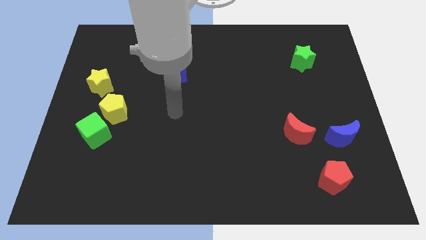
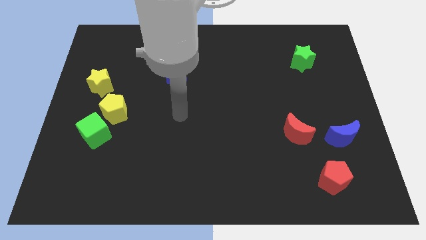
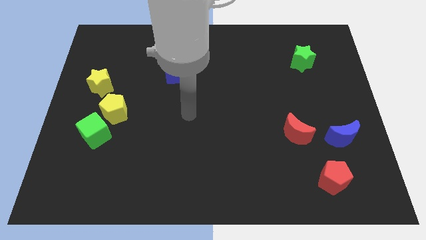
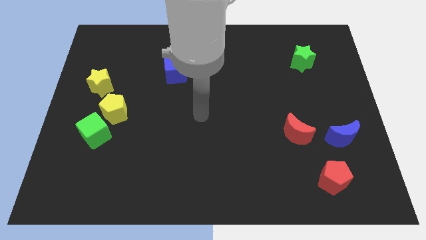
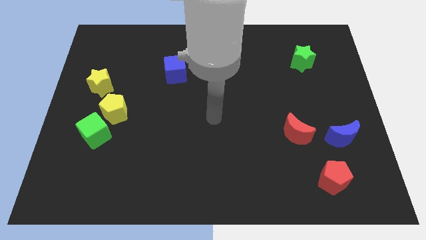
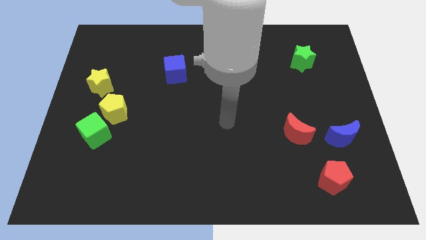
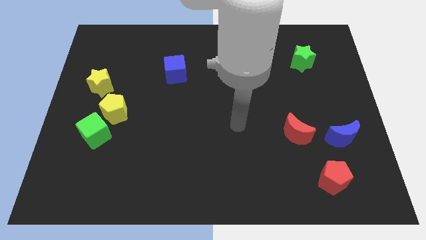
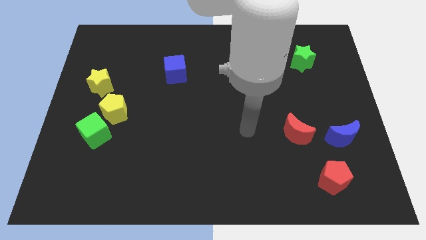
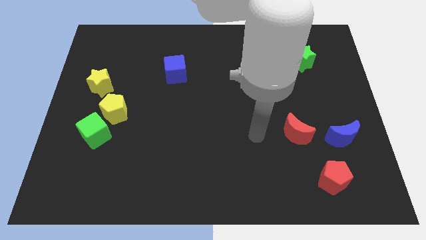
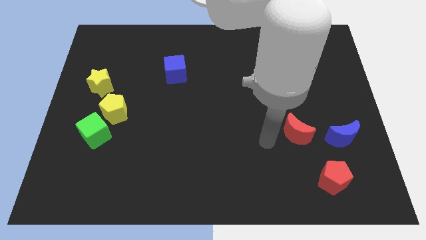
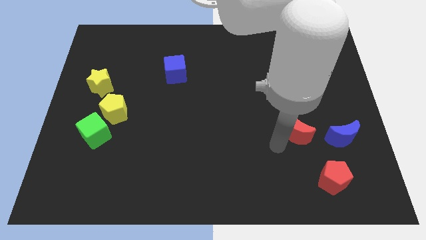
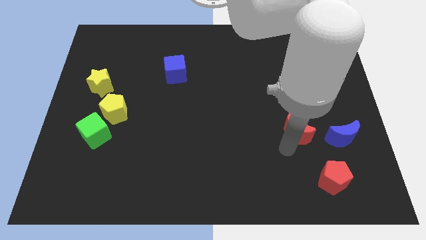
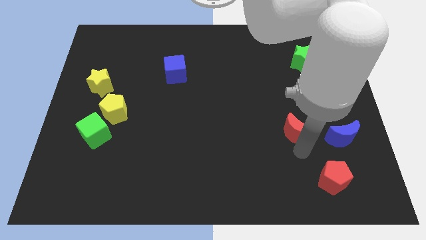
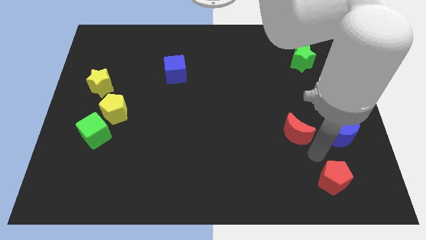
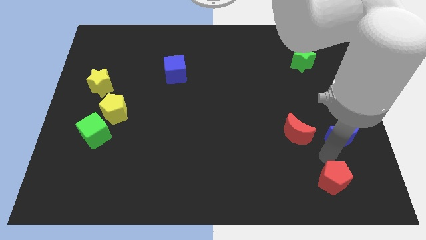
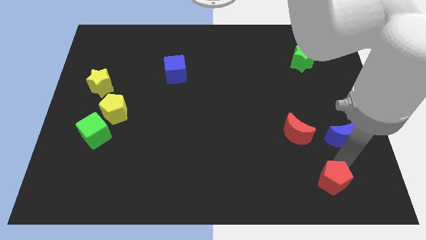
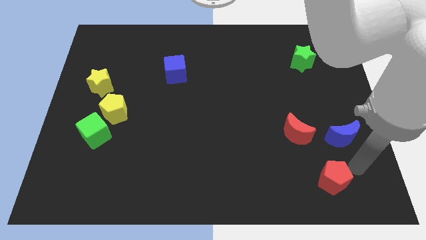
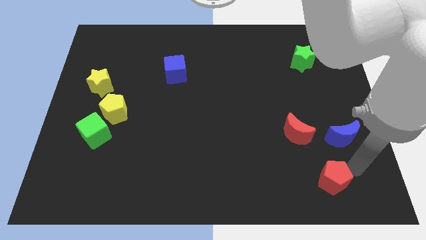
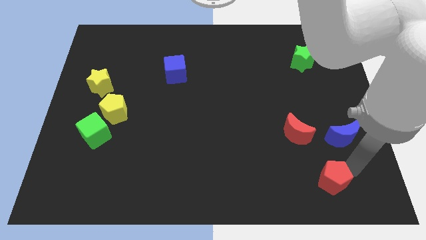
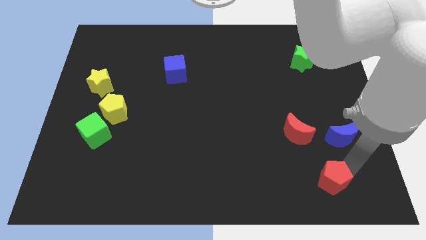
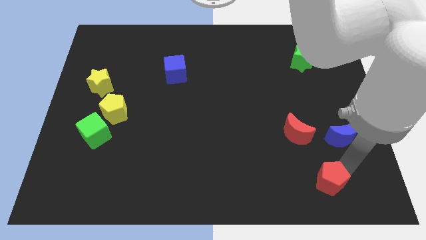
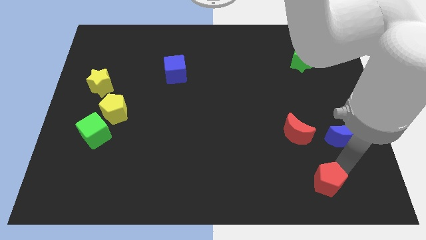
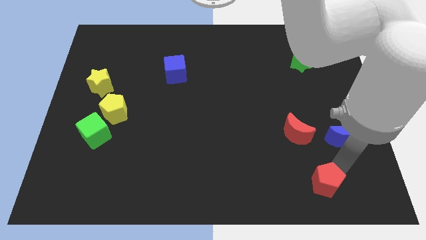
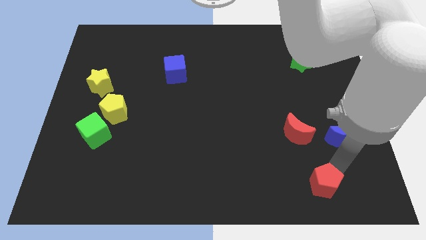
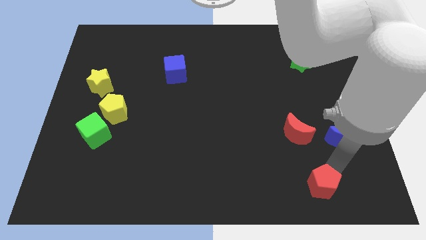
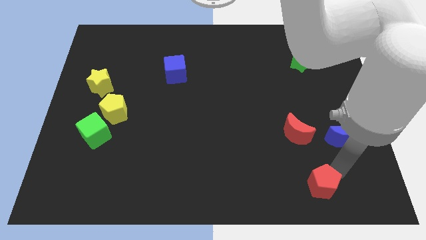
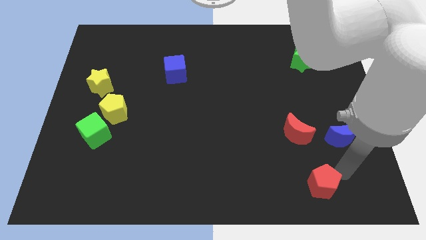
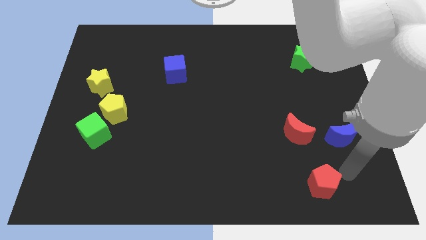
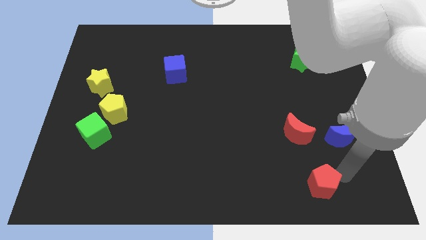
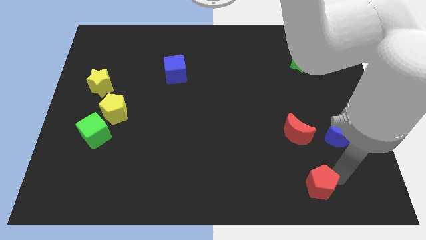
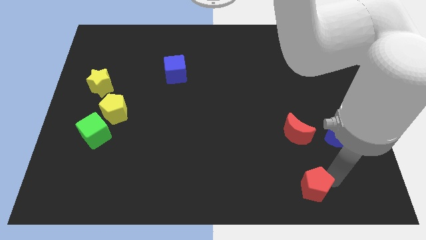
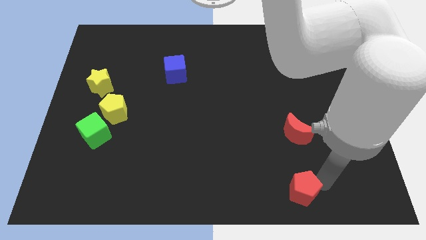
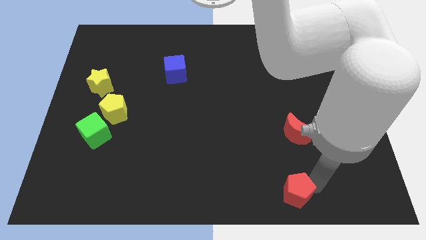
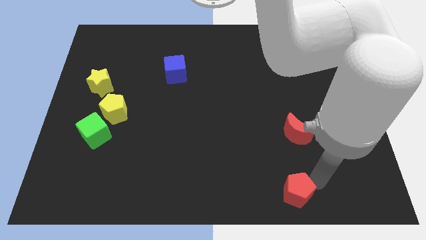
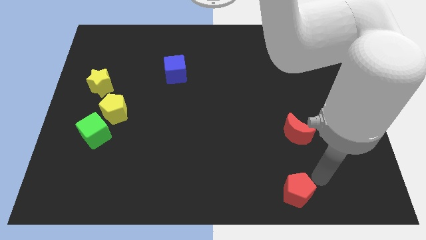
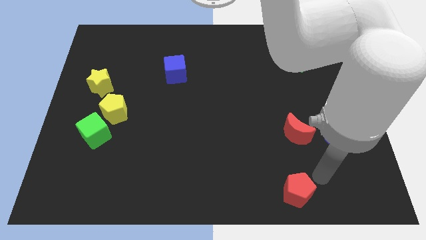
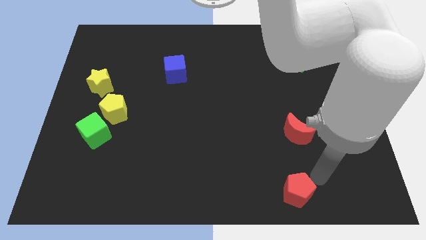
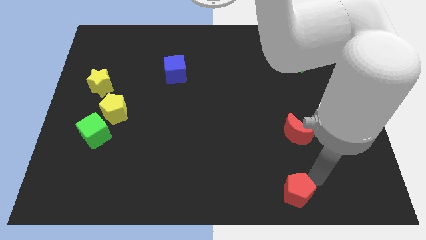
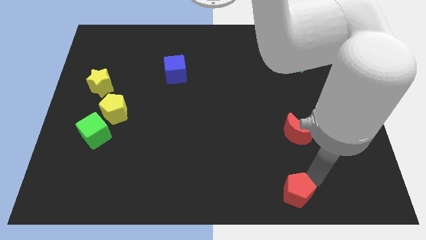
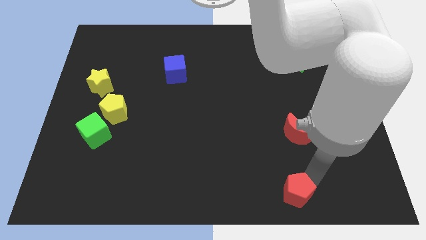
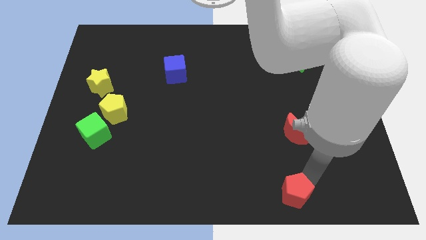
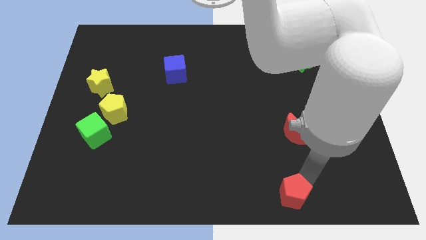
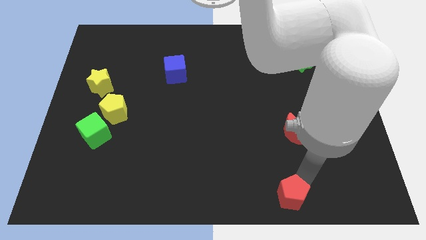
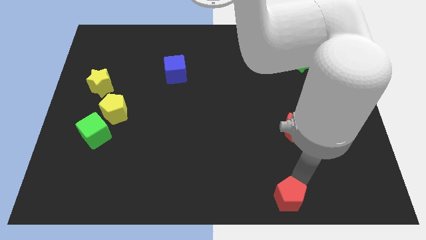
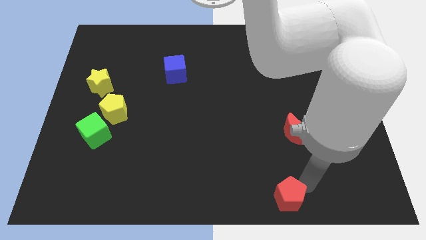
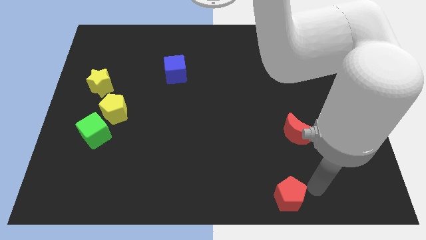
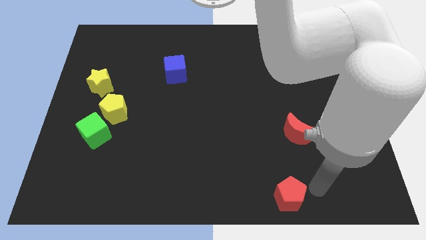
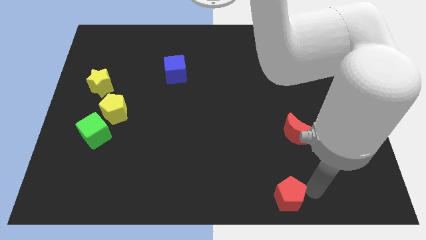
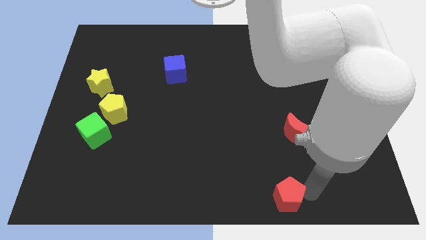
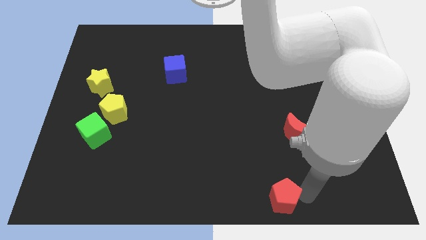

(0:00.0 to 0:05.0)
move the red pentagon to the bottom side

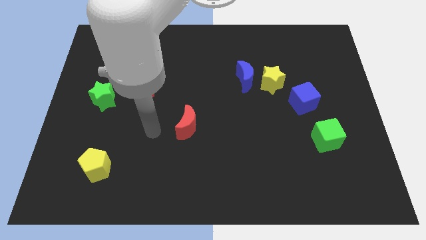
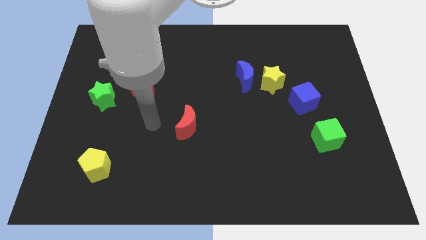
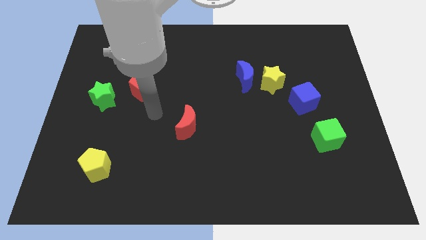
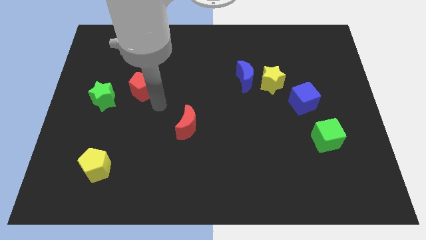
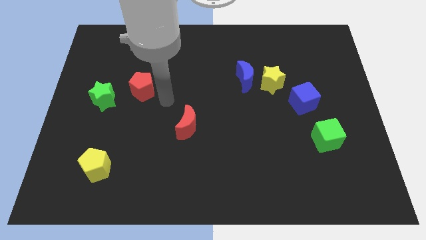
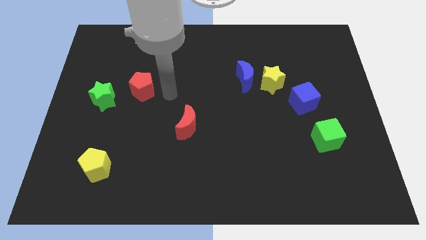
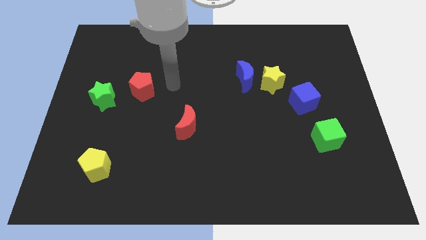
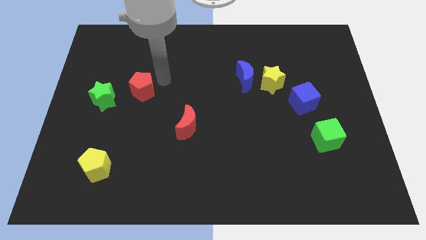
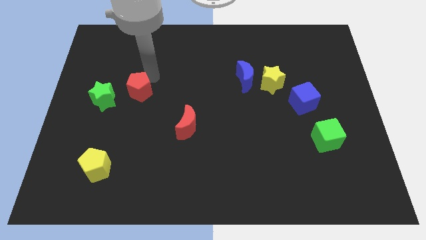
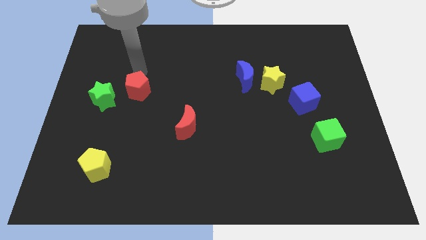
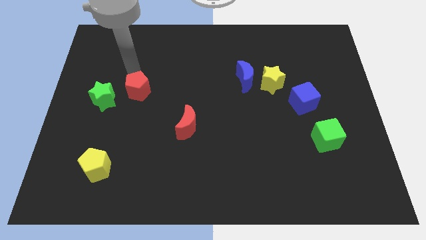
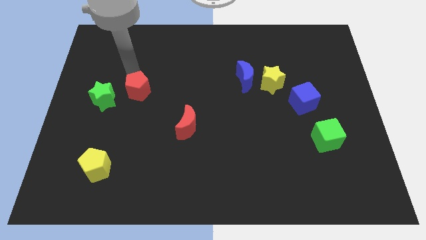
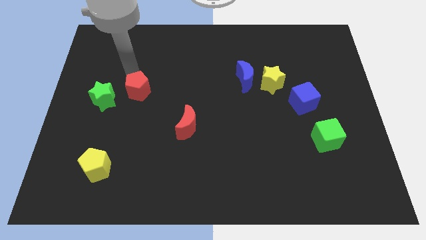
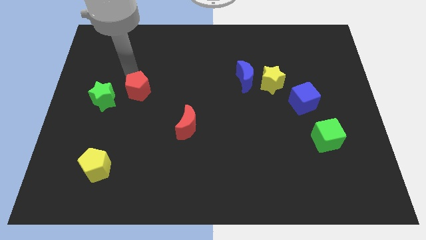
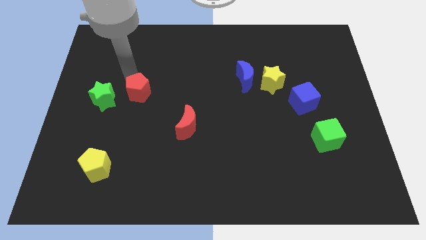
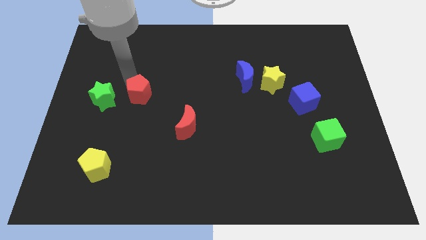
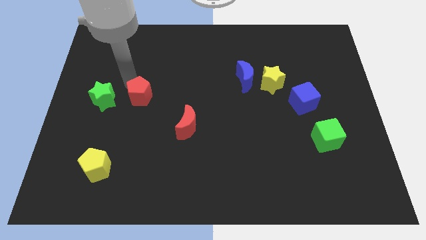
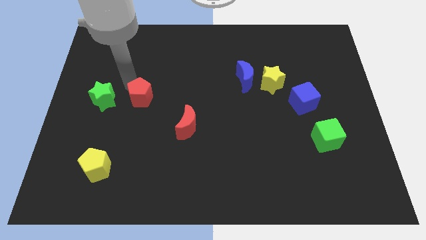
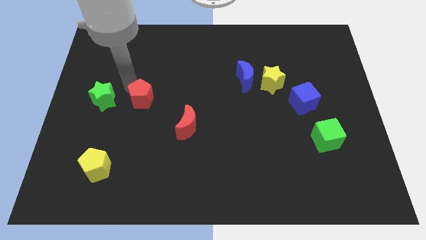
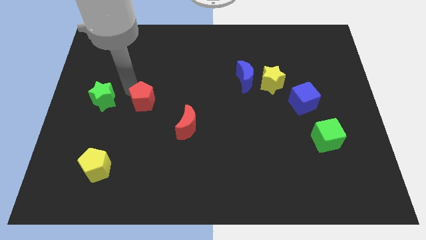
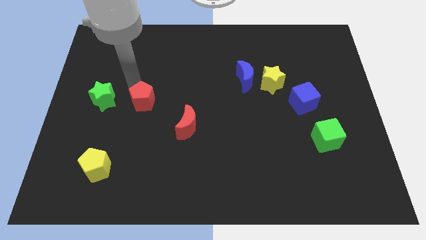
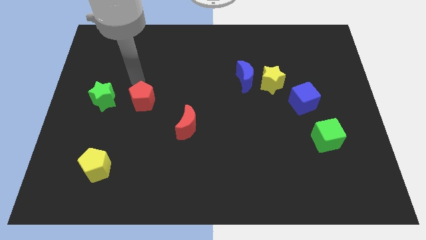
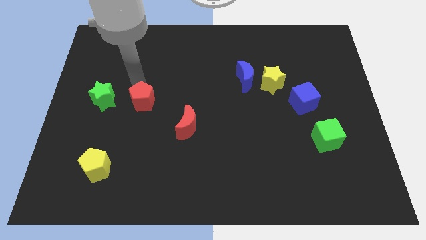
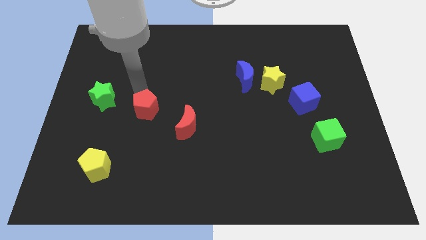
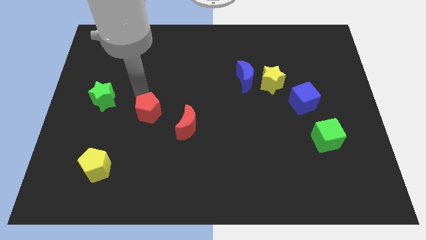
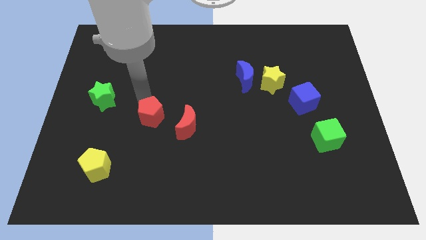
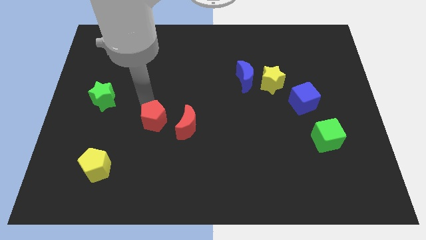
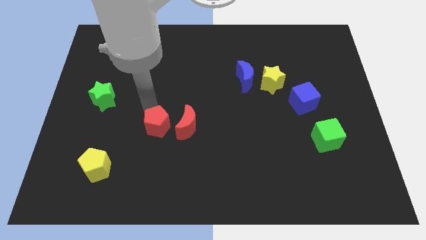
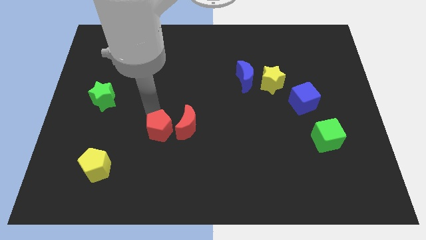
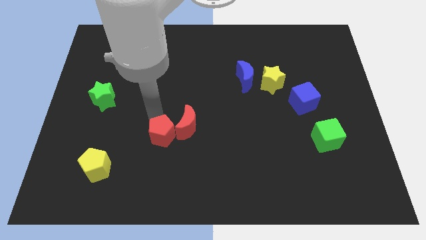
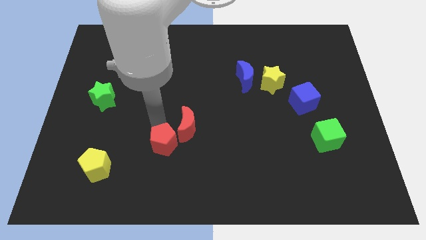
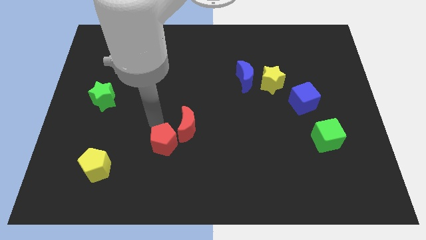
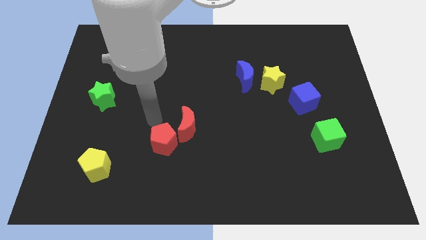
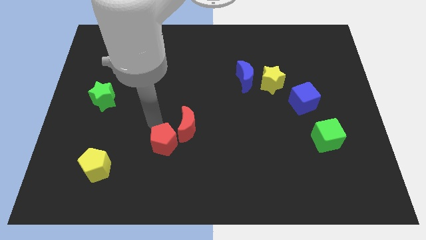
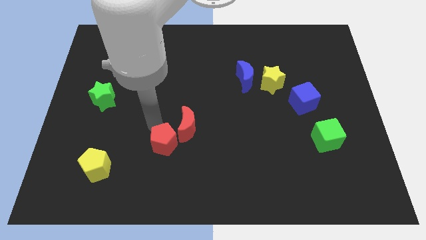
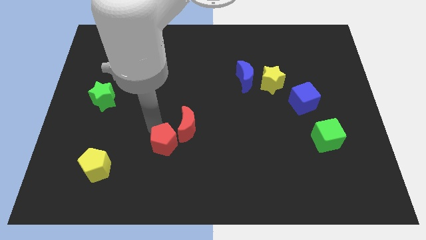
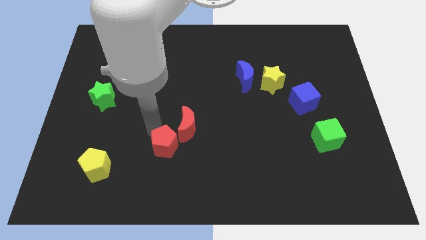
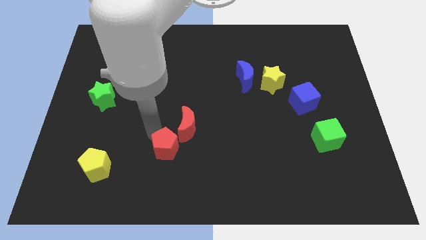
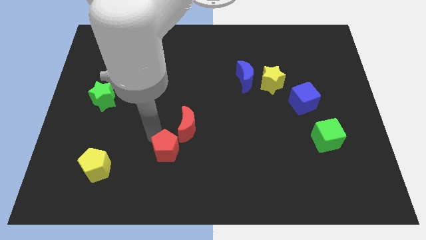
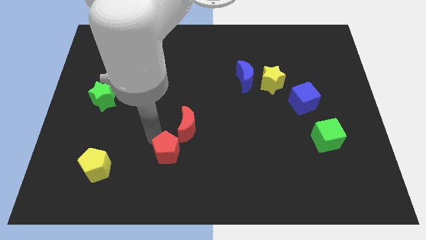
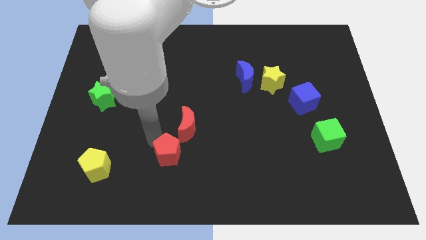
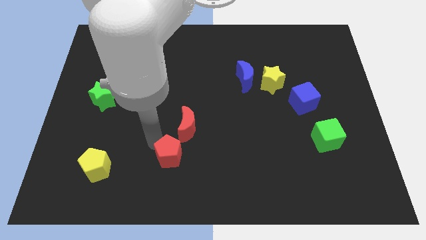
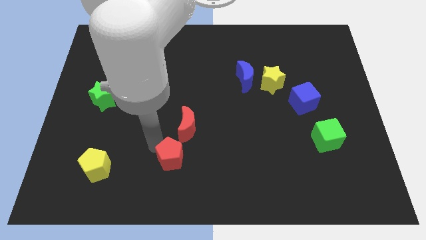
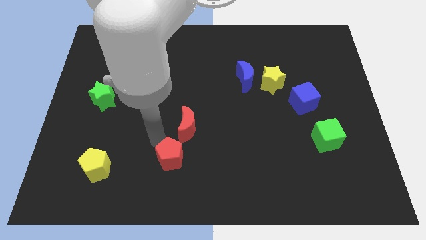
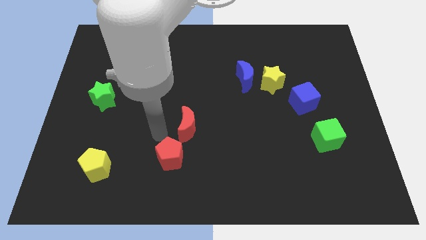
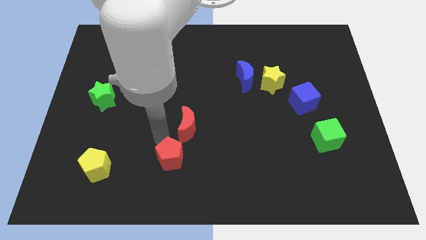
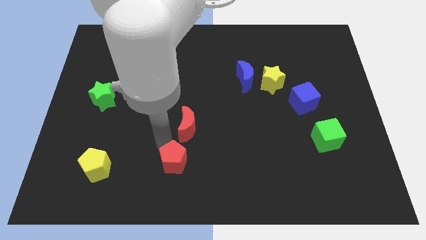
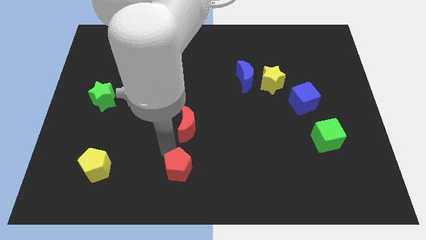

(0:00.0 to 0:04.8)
put the red pentagon to the bottom
